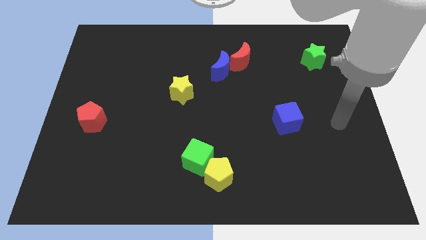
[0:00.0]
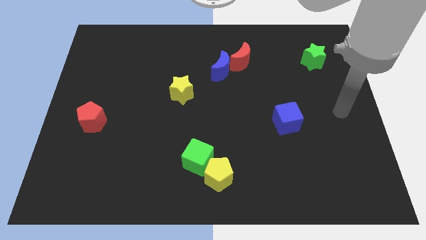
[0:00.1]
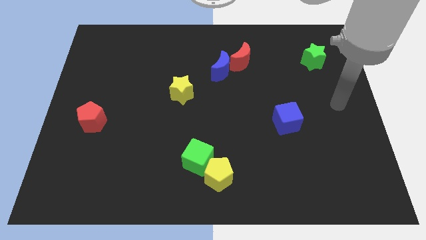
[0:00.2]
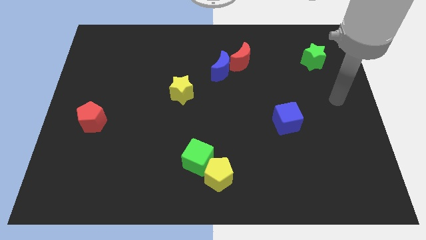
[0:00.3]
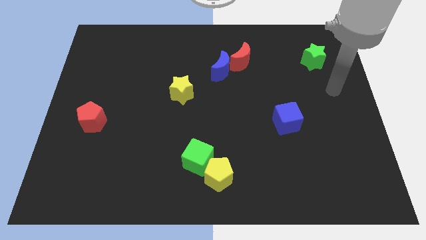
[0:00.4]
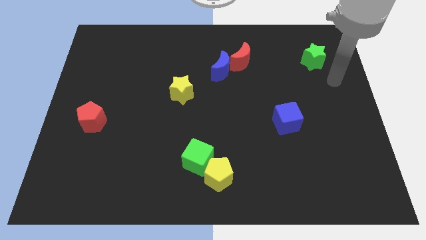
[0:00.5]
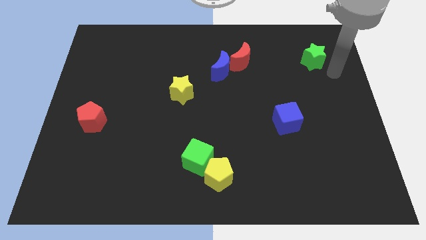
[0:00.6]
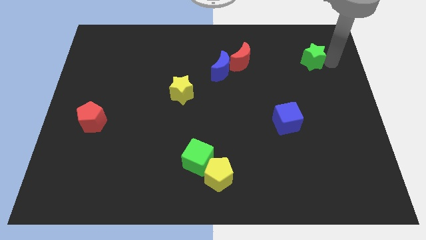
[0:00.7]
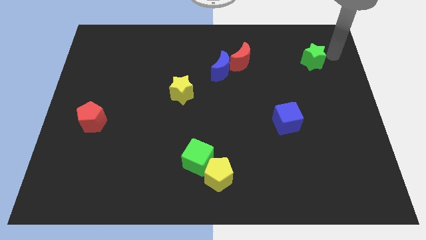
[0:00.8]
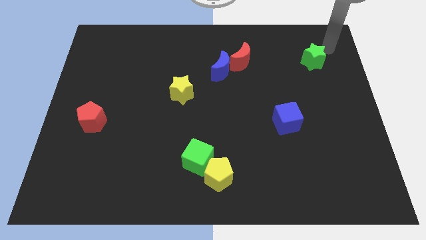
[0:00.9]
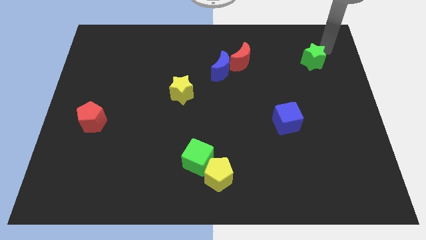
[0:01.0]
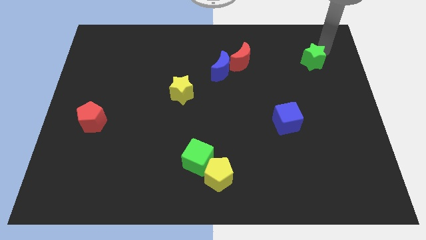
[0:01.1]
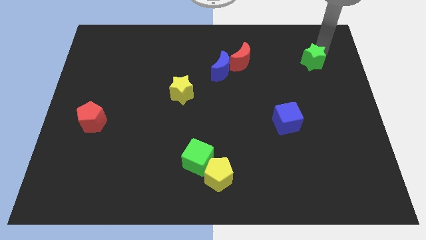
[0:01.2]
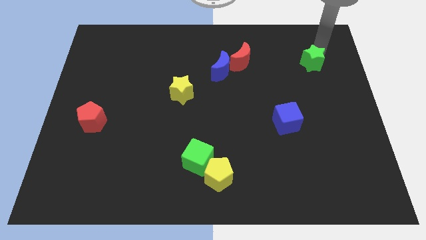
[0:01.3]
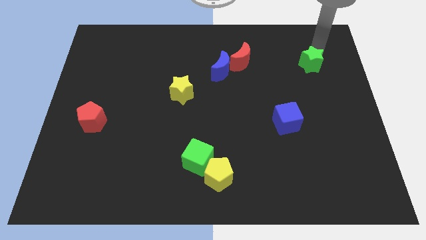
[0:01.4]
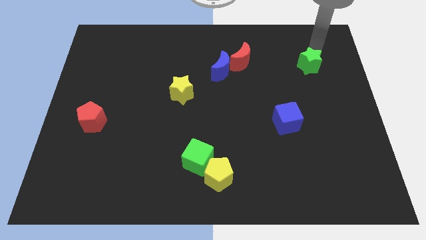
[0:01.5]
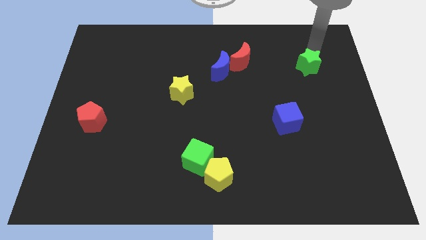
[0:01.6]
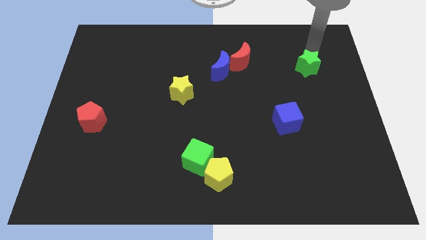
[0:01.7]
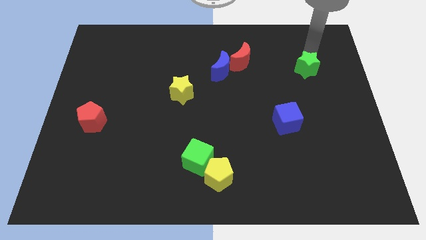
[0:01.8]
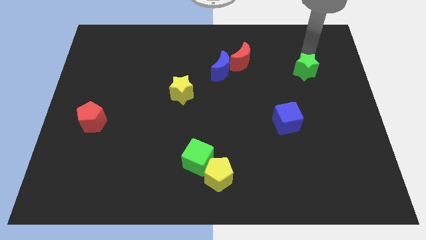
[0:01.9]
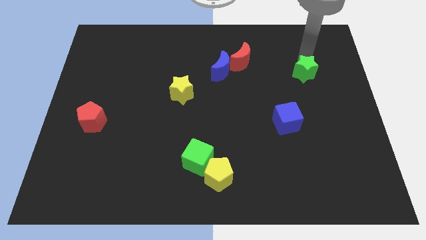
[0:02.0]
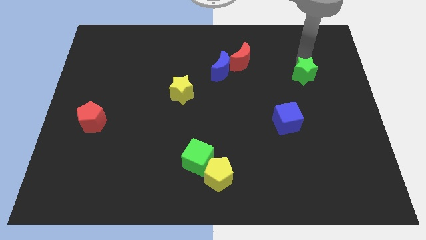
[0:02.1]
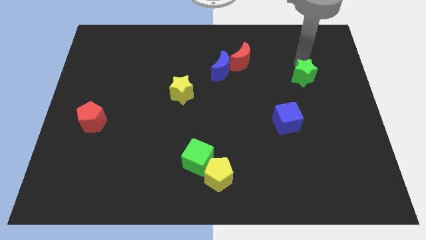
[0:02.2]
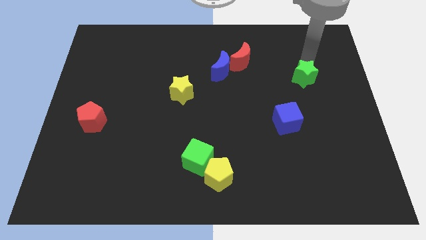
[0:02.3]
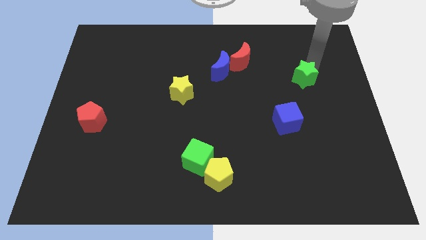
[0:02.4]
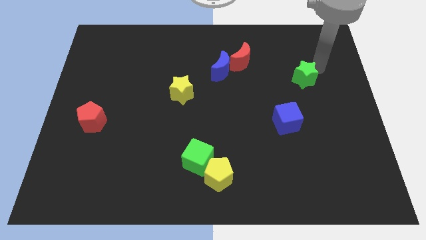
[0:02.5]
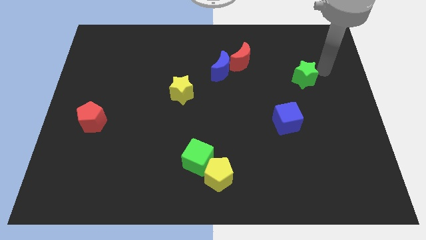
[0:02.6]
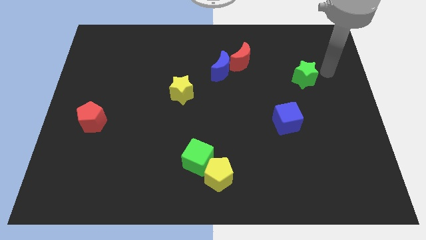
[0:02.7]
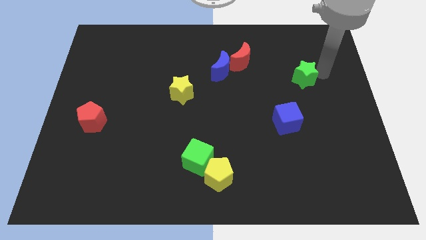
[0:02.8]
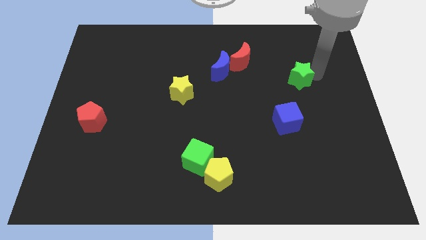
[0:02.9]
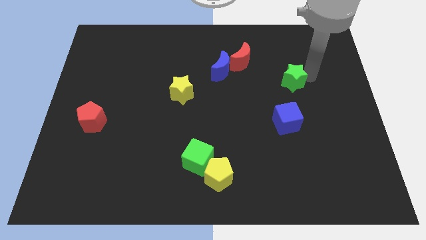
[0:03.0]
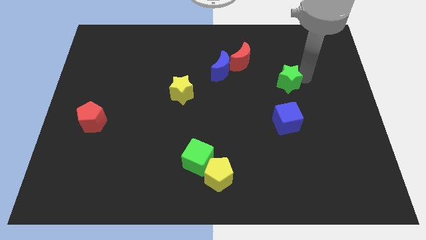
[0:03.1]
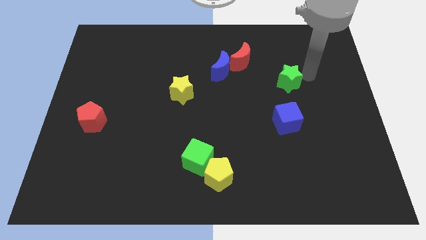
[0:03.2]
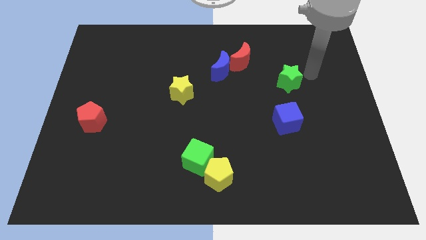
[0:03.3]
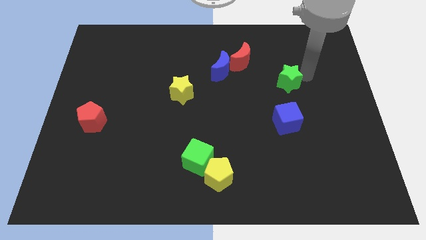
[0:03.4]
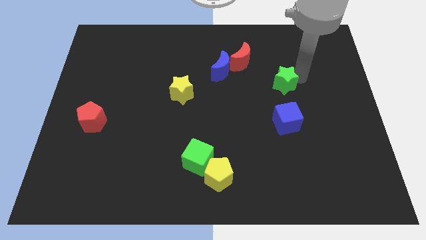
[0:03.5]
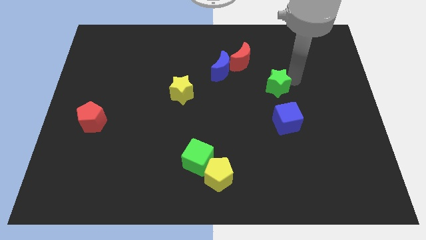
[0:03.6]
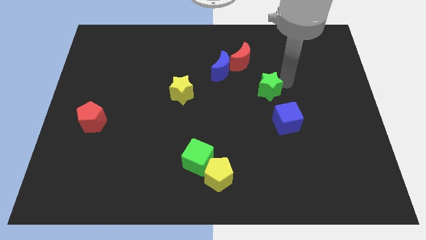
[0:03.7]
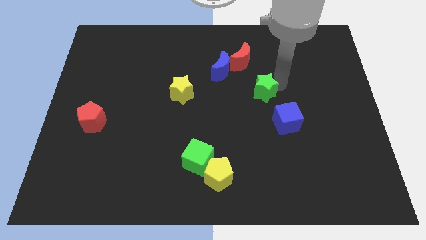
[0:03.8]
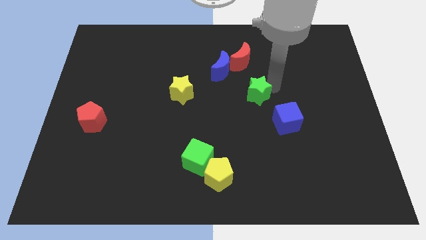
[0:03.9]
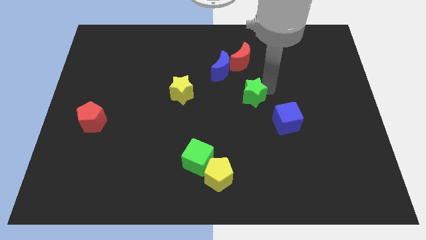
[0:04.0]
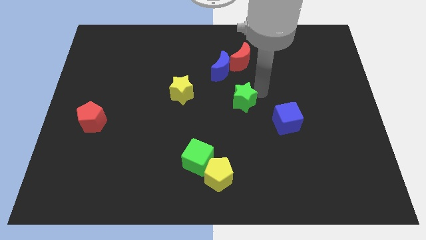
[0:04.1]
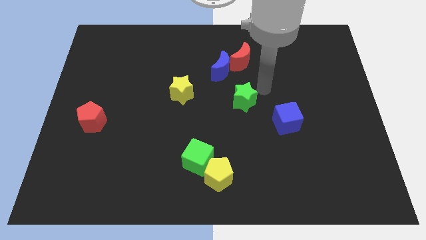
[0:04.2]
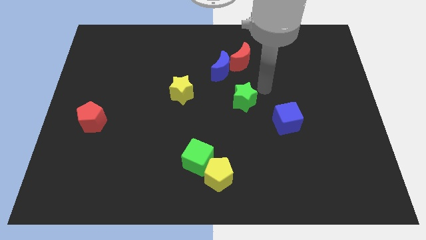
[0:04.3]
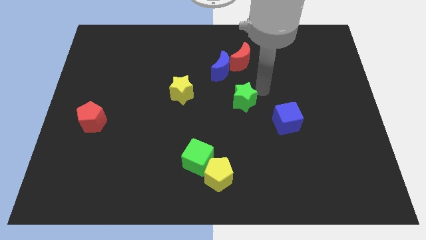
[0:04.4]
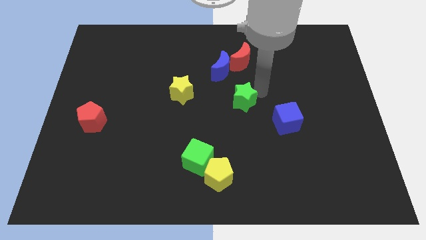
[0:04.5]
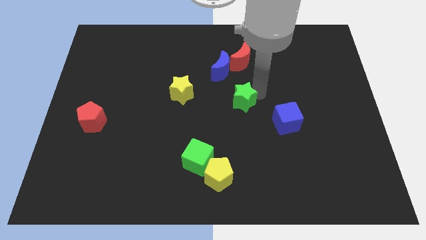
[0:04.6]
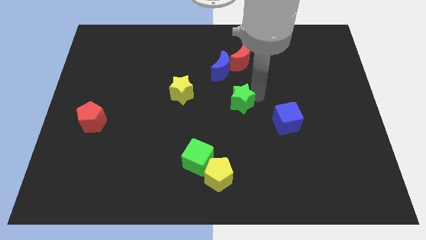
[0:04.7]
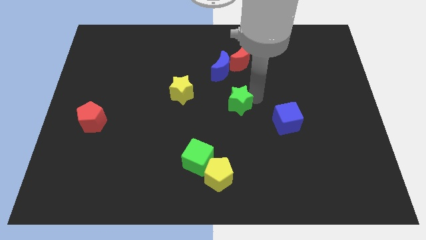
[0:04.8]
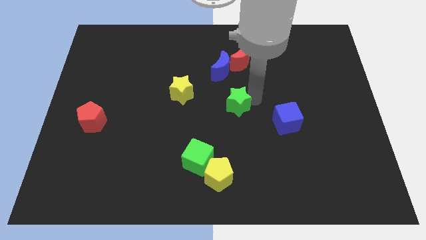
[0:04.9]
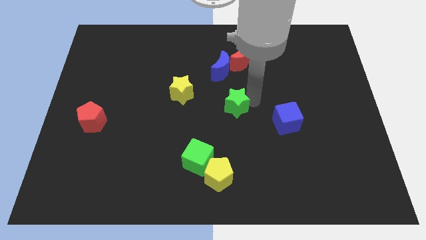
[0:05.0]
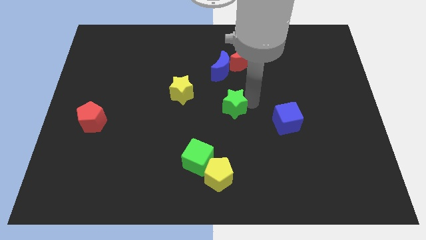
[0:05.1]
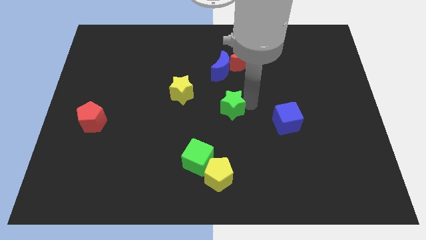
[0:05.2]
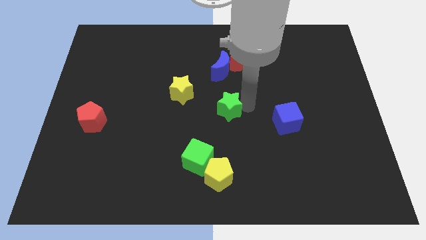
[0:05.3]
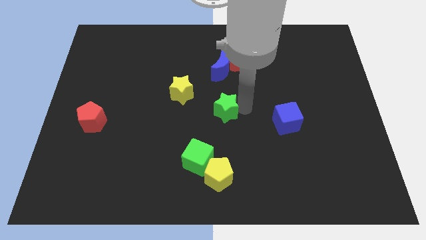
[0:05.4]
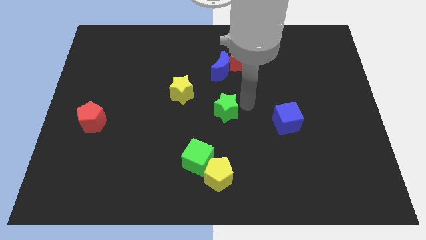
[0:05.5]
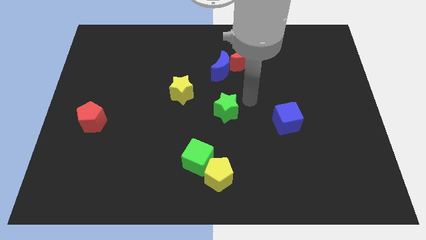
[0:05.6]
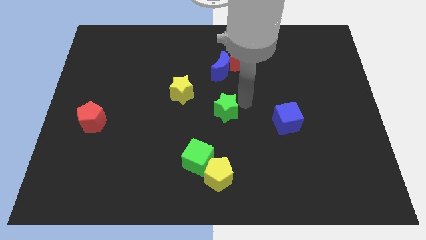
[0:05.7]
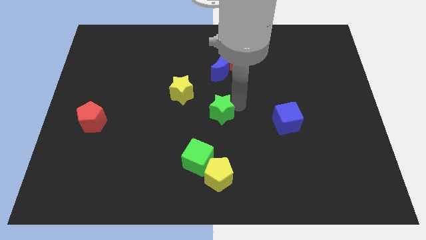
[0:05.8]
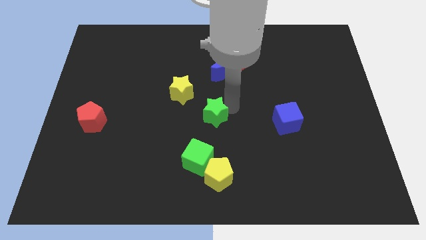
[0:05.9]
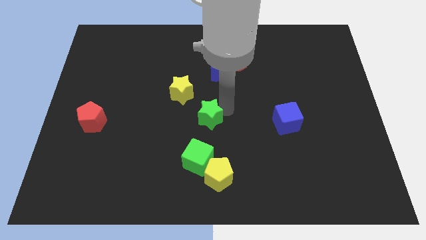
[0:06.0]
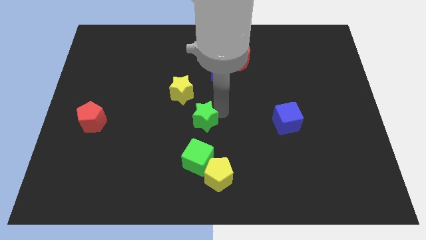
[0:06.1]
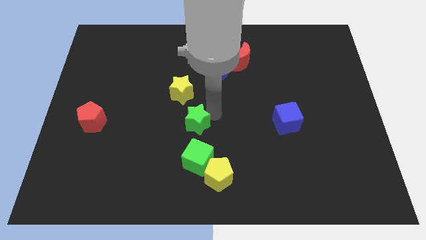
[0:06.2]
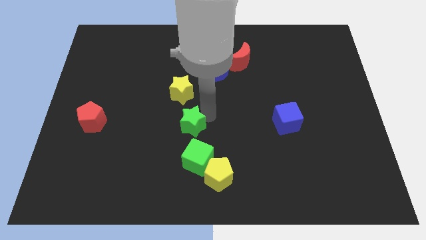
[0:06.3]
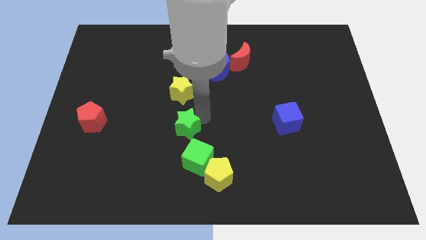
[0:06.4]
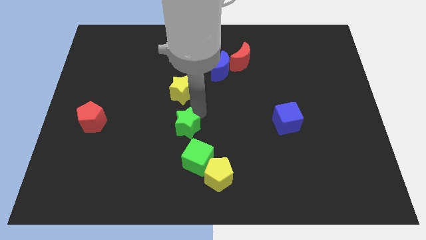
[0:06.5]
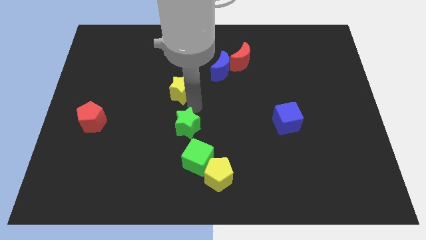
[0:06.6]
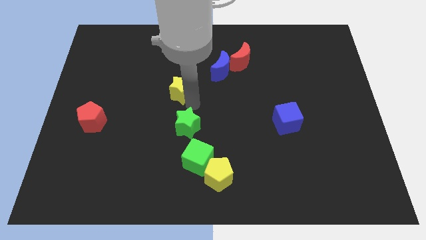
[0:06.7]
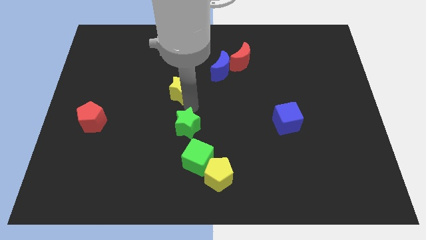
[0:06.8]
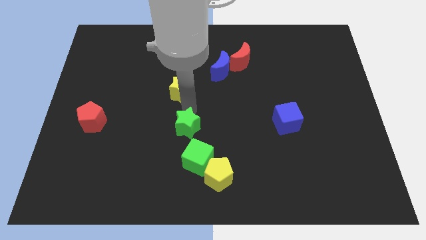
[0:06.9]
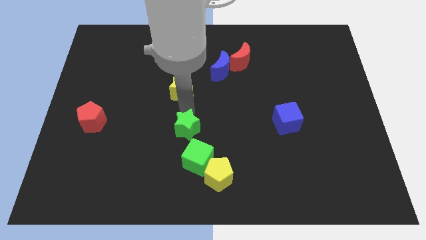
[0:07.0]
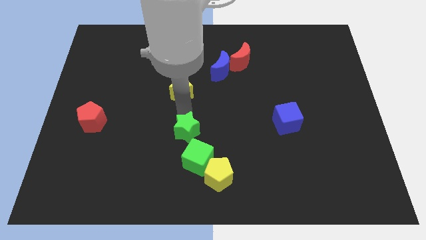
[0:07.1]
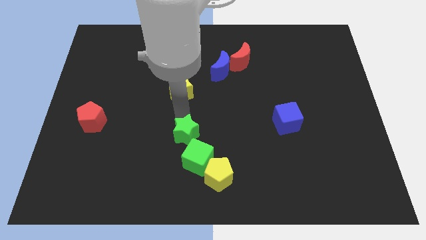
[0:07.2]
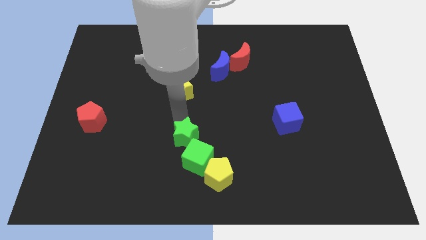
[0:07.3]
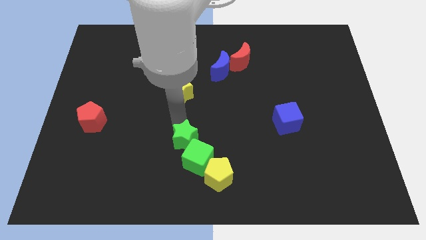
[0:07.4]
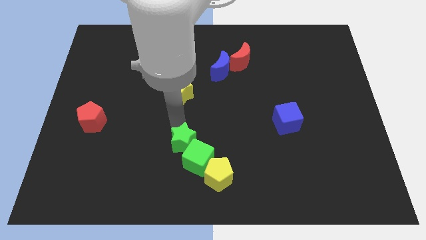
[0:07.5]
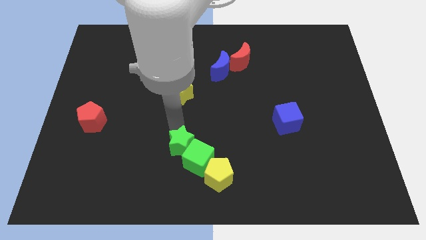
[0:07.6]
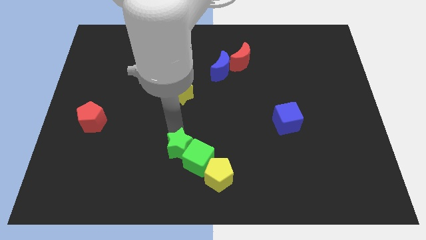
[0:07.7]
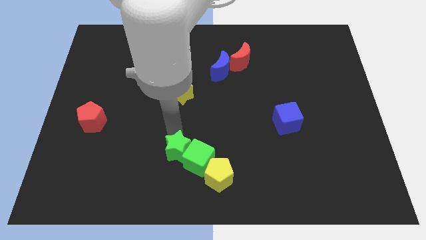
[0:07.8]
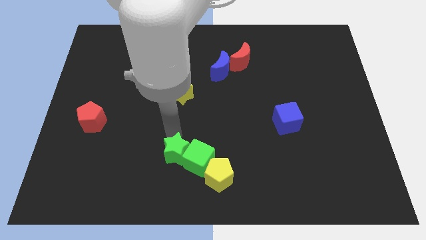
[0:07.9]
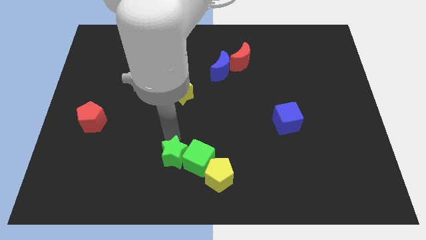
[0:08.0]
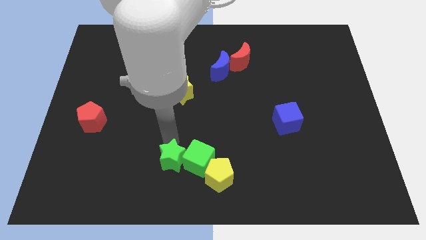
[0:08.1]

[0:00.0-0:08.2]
move the green star to the left of the yellow pentagon
